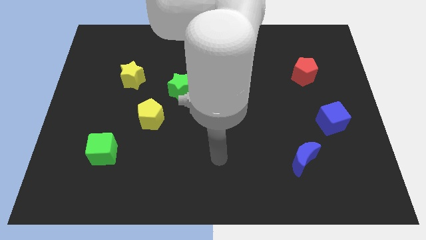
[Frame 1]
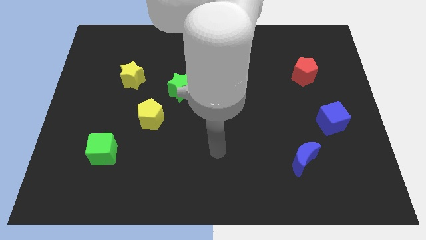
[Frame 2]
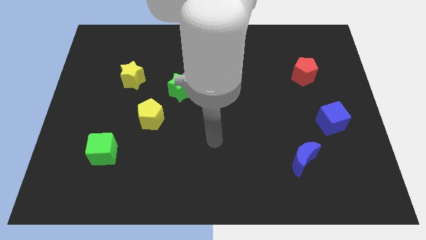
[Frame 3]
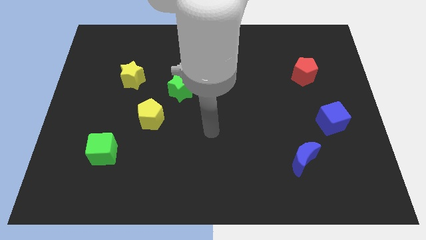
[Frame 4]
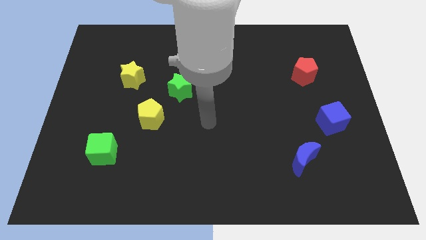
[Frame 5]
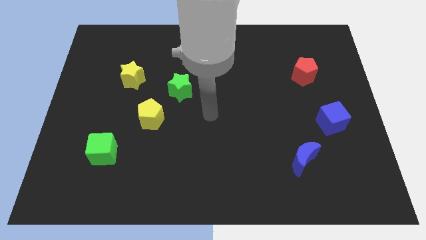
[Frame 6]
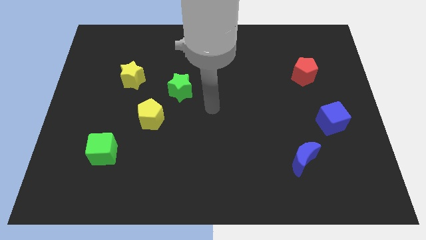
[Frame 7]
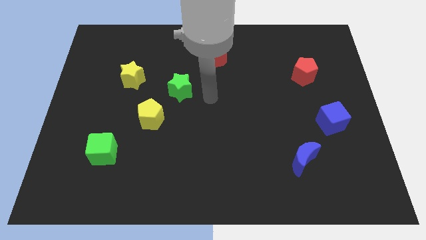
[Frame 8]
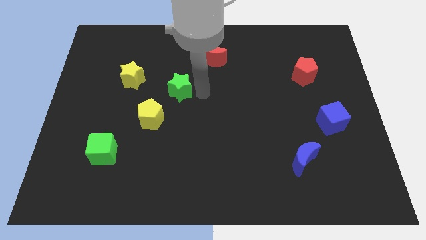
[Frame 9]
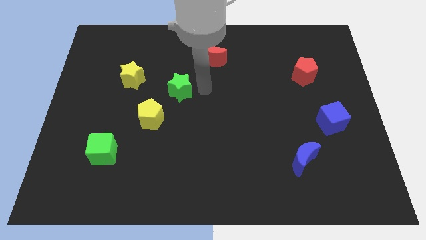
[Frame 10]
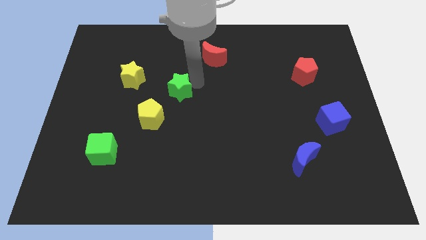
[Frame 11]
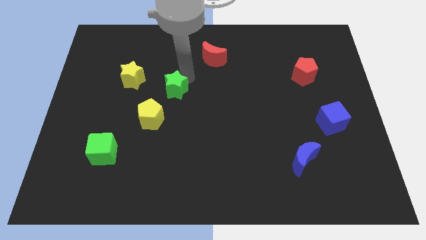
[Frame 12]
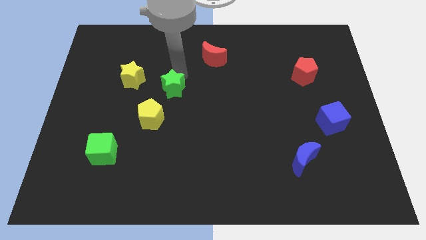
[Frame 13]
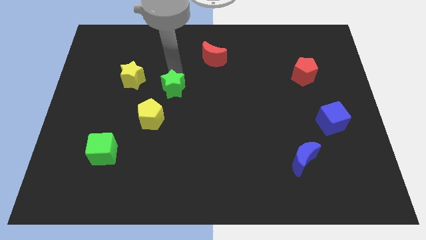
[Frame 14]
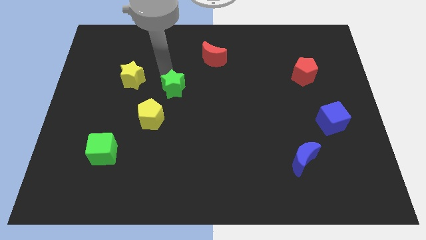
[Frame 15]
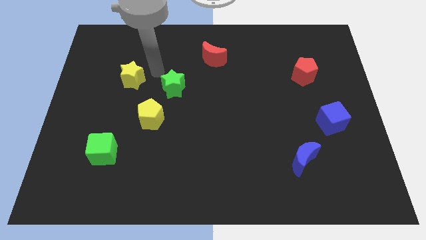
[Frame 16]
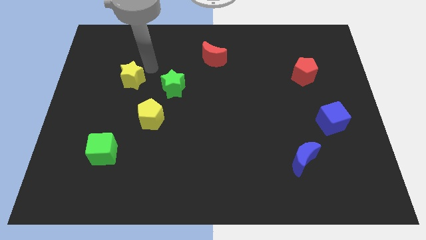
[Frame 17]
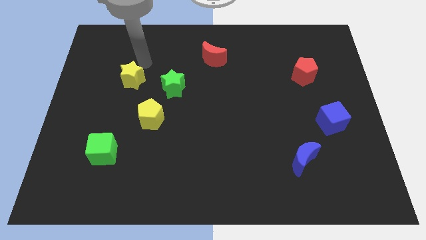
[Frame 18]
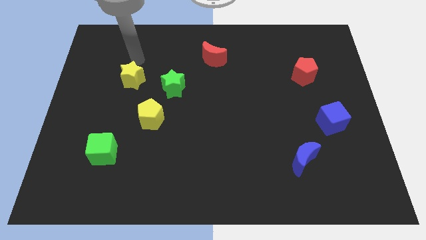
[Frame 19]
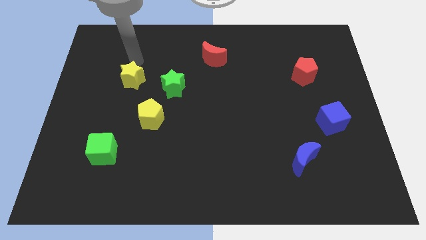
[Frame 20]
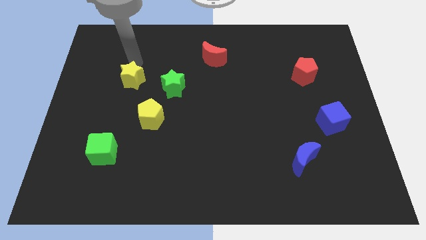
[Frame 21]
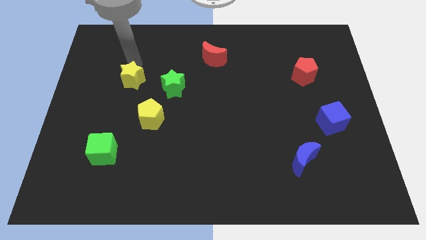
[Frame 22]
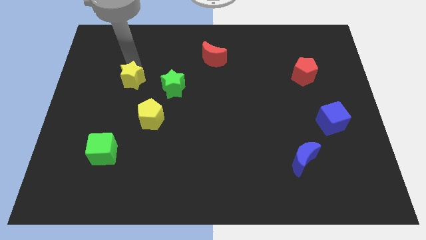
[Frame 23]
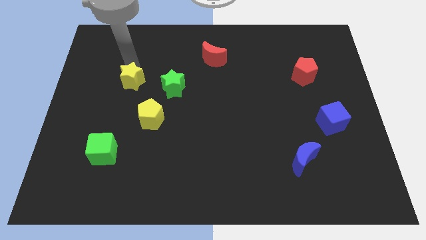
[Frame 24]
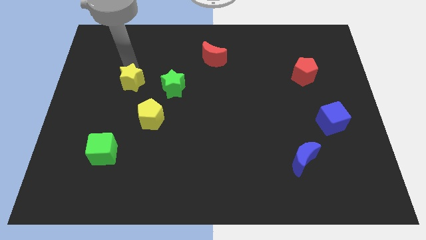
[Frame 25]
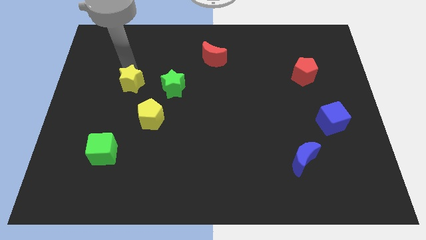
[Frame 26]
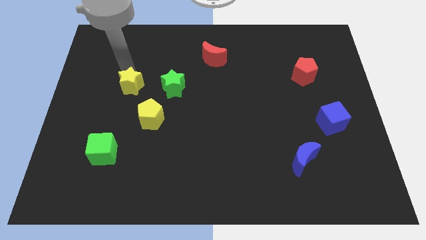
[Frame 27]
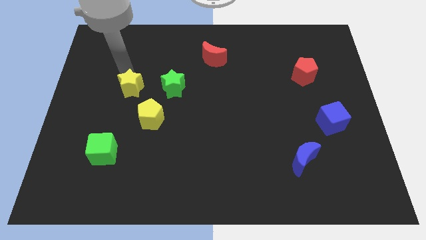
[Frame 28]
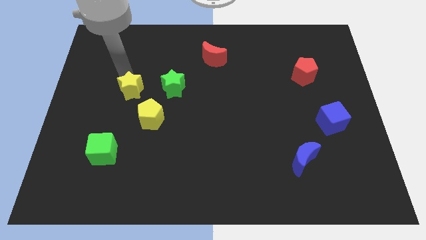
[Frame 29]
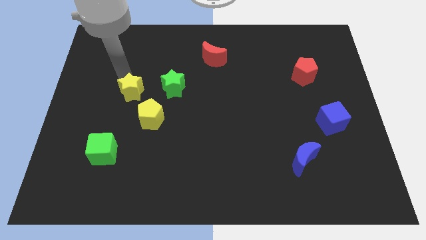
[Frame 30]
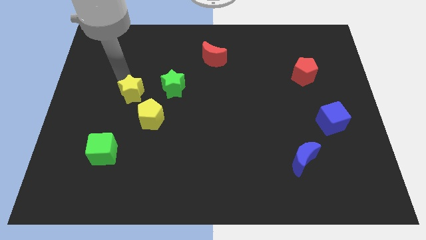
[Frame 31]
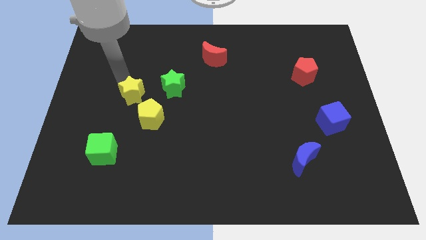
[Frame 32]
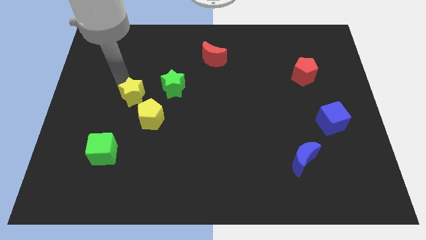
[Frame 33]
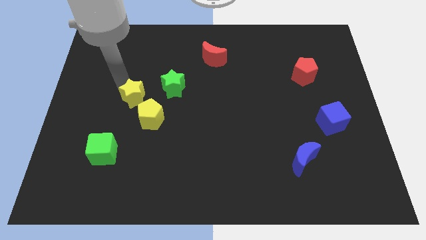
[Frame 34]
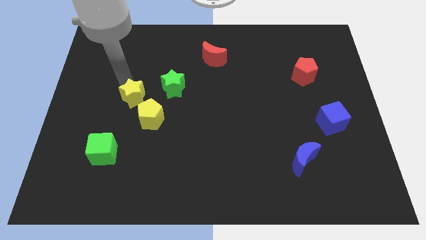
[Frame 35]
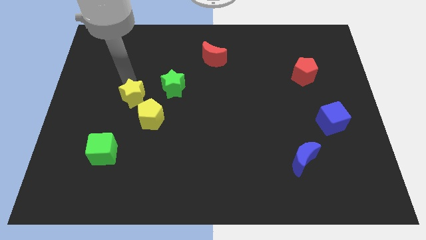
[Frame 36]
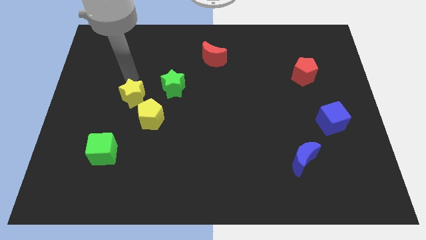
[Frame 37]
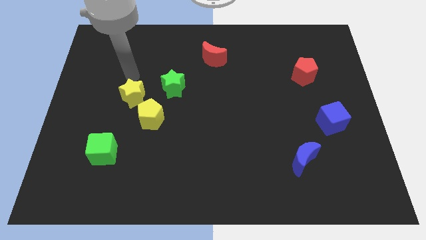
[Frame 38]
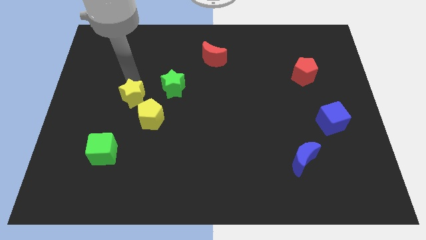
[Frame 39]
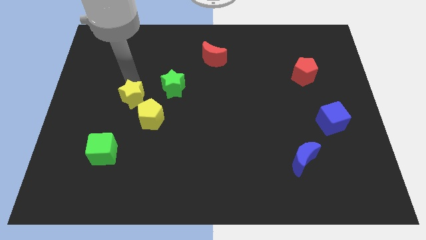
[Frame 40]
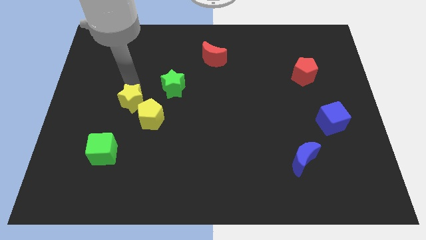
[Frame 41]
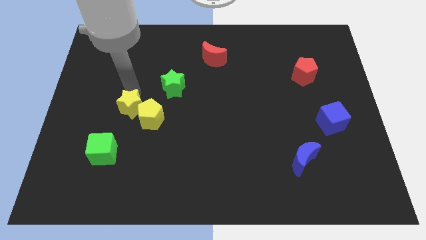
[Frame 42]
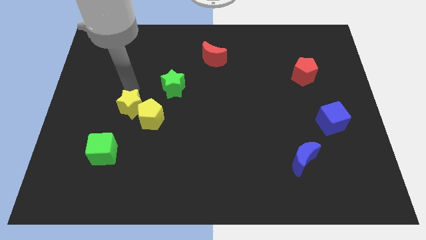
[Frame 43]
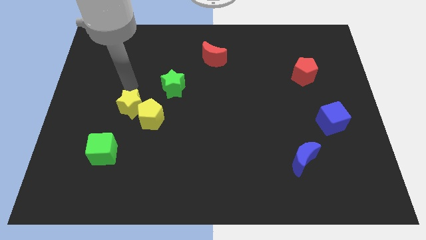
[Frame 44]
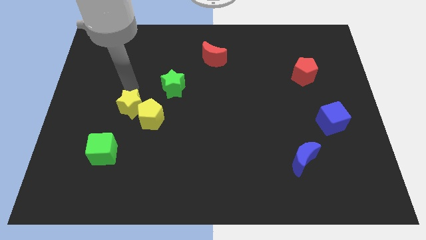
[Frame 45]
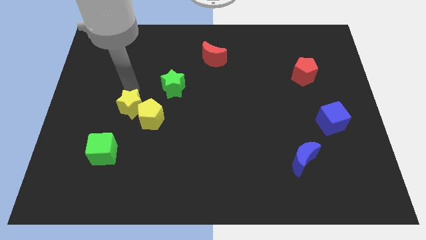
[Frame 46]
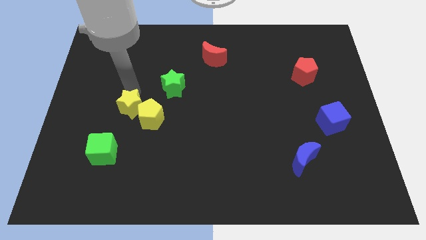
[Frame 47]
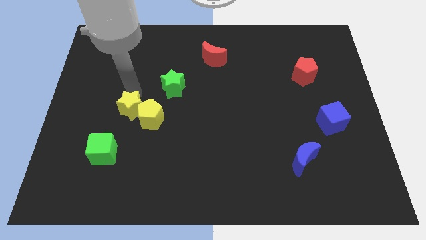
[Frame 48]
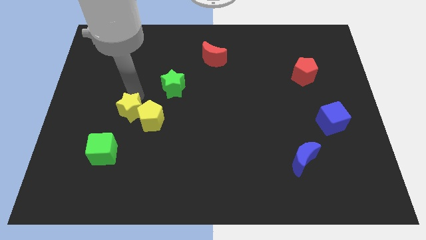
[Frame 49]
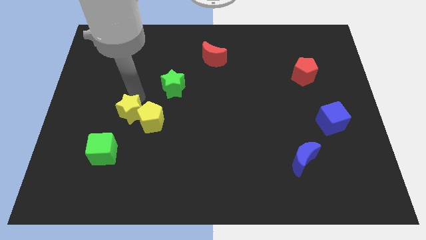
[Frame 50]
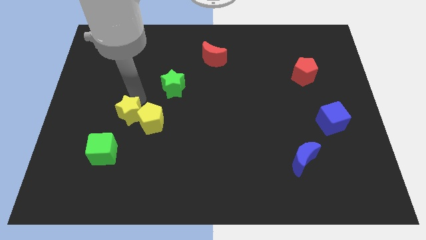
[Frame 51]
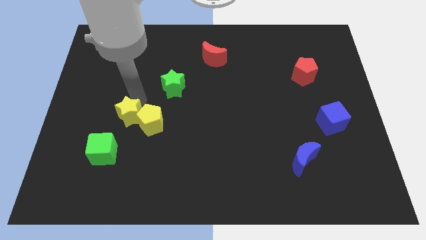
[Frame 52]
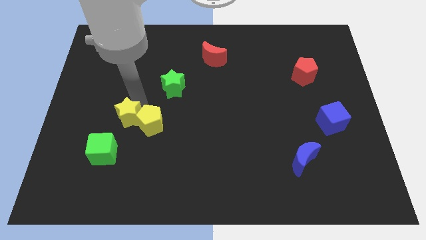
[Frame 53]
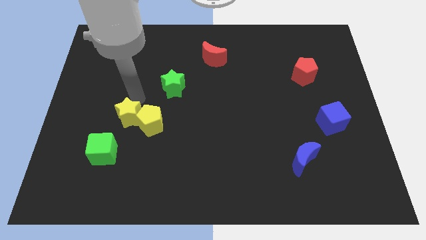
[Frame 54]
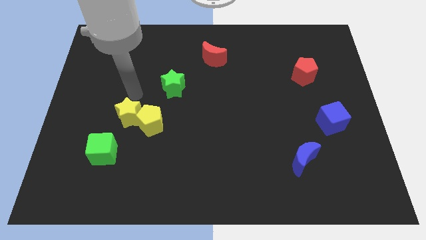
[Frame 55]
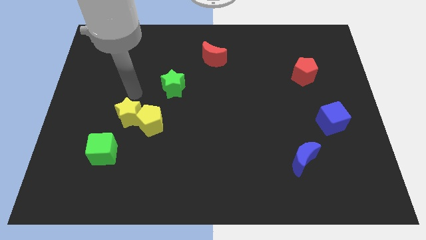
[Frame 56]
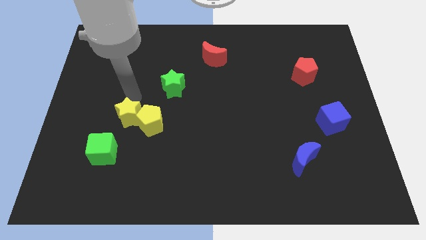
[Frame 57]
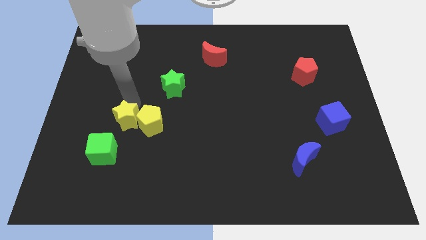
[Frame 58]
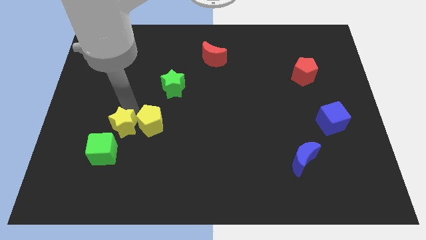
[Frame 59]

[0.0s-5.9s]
move the yellow star to the bottom left of the yellow pentagon

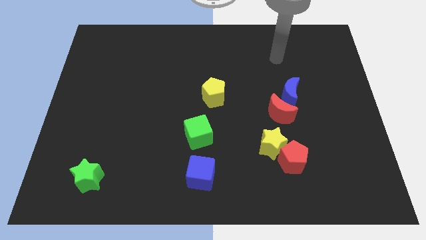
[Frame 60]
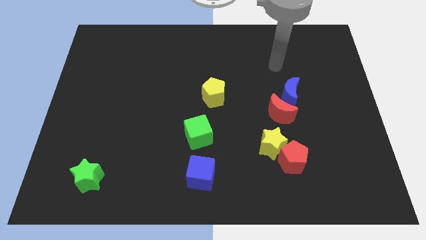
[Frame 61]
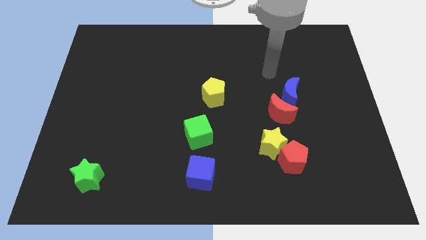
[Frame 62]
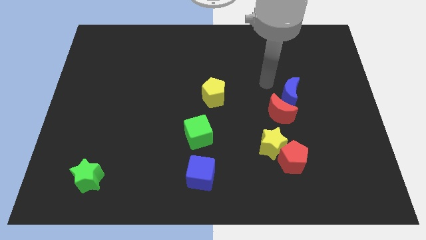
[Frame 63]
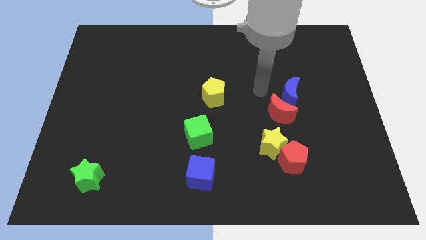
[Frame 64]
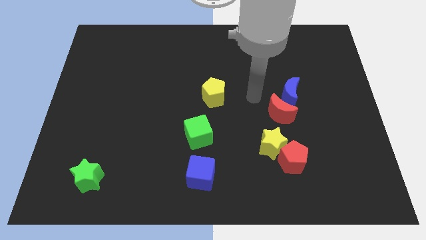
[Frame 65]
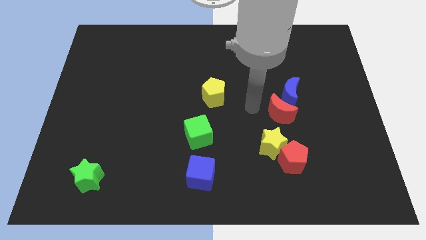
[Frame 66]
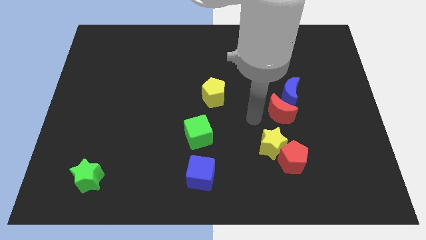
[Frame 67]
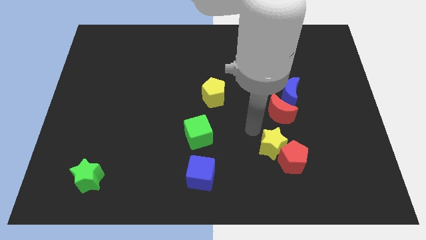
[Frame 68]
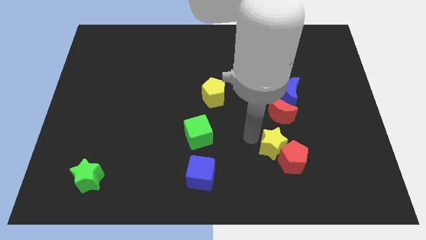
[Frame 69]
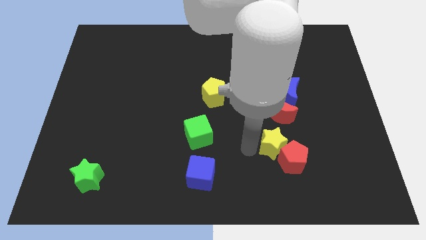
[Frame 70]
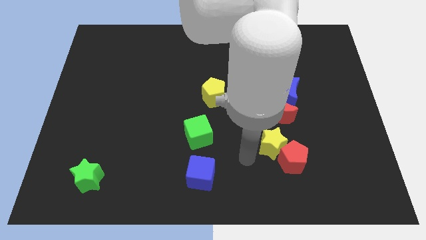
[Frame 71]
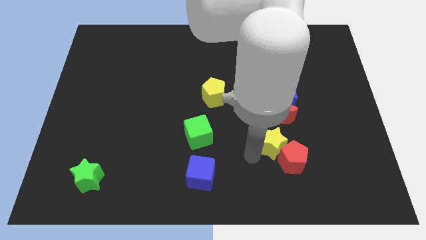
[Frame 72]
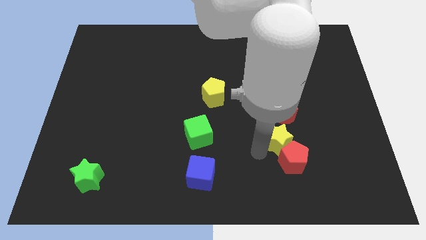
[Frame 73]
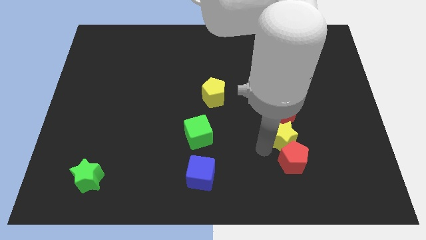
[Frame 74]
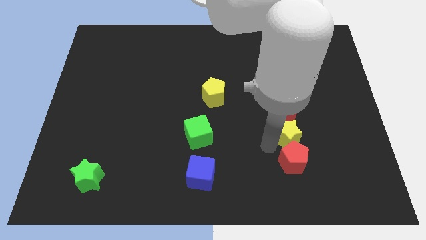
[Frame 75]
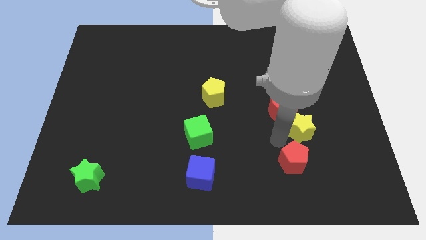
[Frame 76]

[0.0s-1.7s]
slide the yellow star to the right side of the red moon
